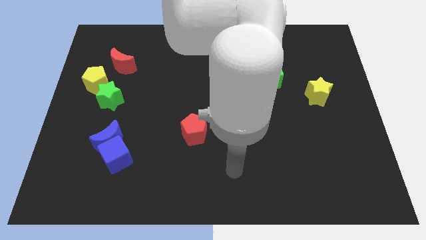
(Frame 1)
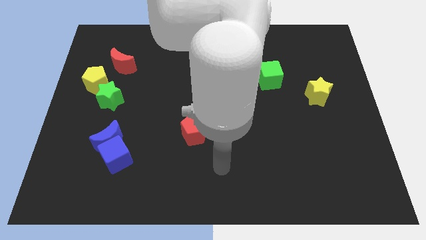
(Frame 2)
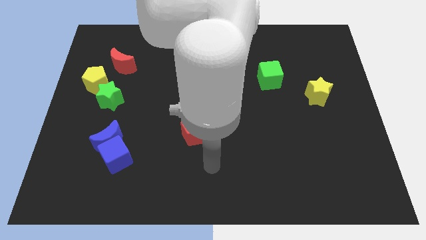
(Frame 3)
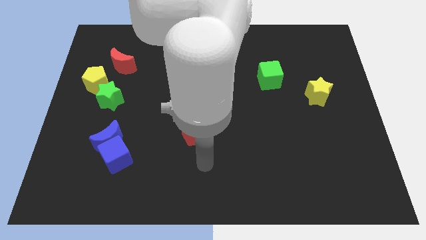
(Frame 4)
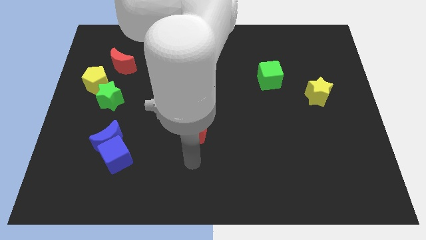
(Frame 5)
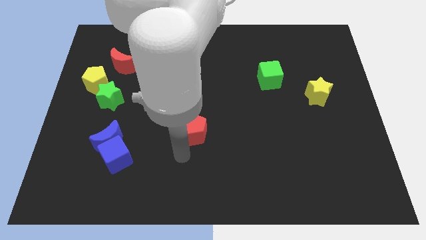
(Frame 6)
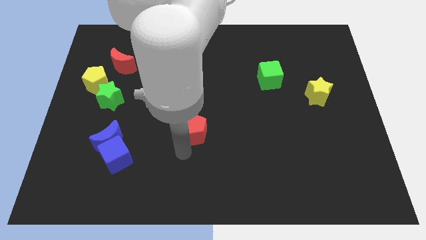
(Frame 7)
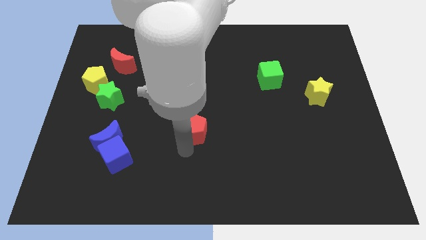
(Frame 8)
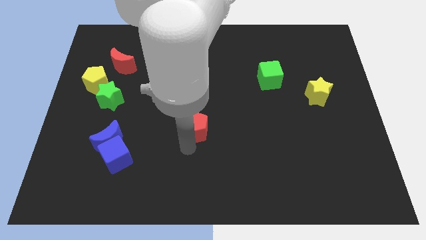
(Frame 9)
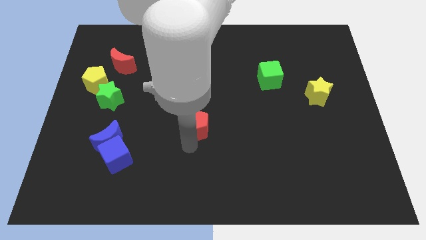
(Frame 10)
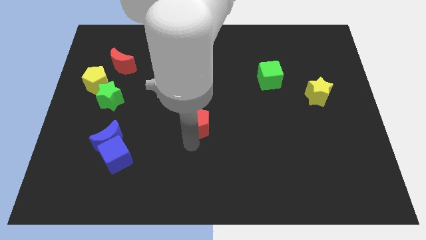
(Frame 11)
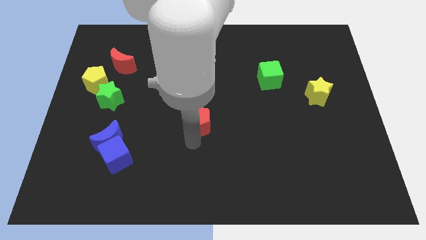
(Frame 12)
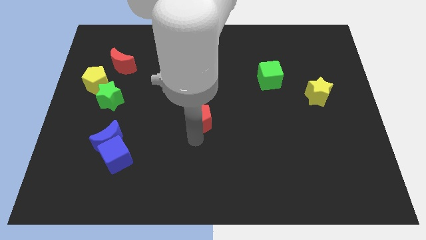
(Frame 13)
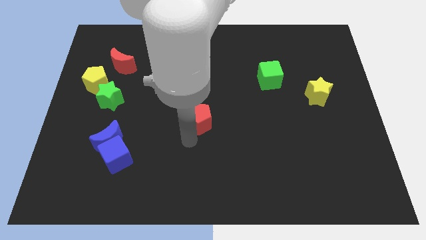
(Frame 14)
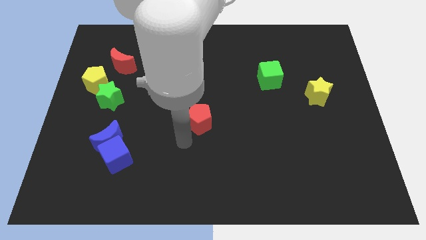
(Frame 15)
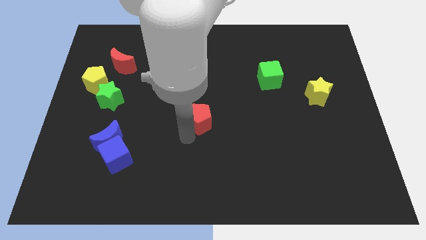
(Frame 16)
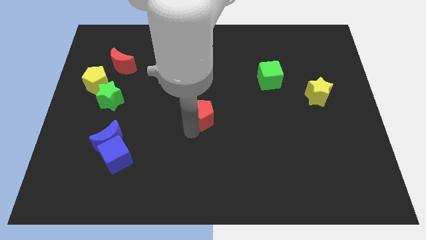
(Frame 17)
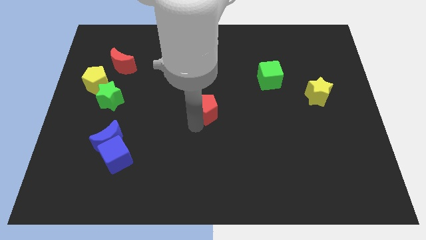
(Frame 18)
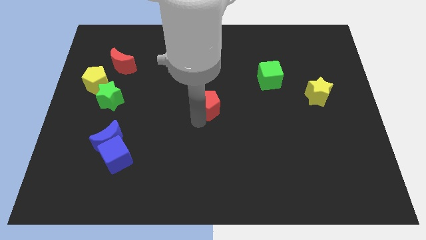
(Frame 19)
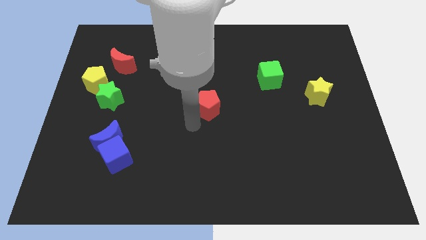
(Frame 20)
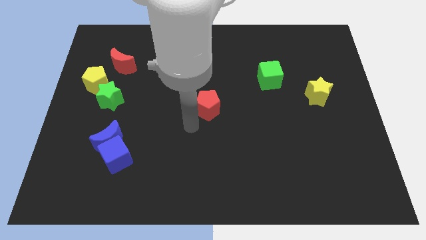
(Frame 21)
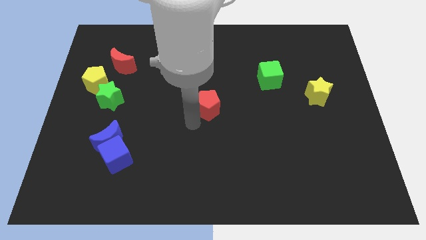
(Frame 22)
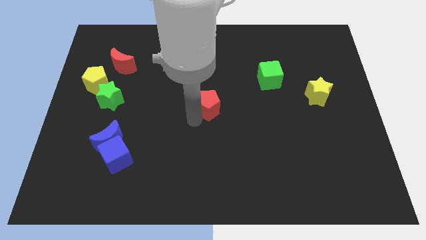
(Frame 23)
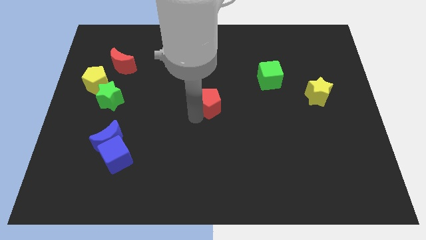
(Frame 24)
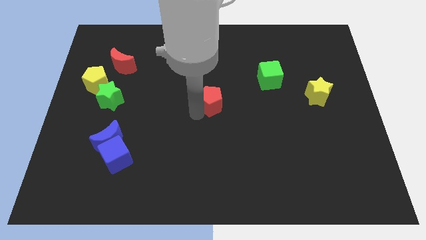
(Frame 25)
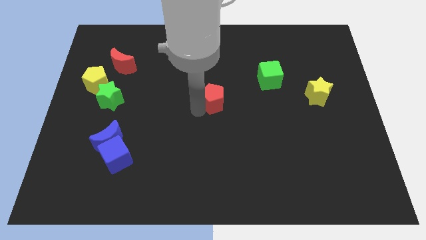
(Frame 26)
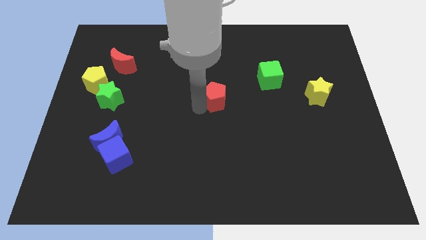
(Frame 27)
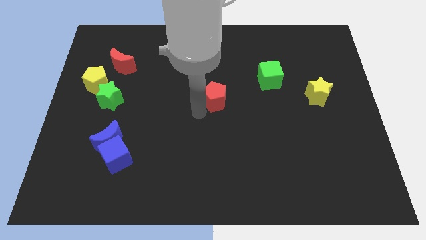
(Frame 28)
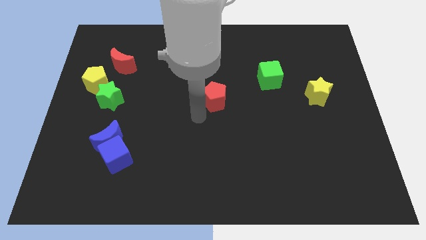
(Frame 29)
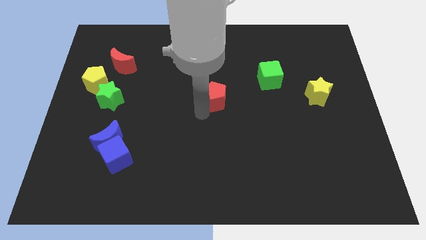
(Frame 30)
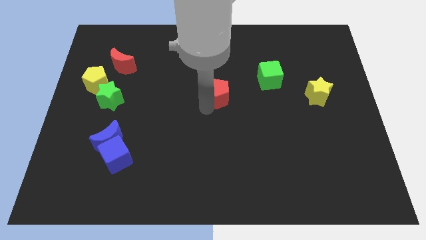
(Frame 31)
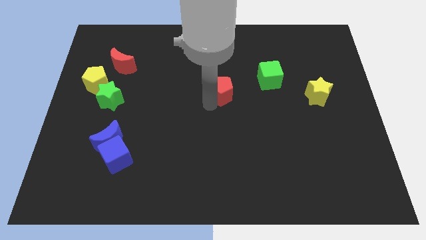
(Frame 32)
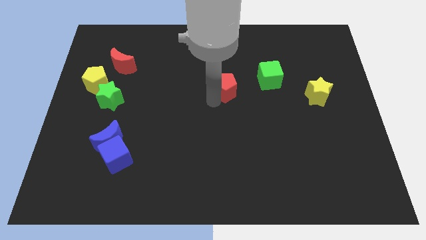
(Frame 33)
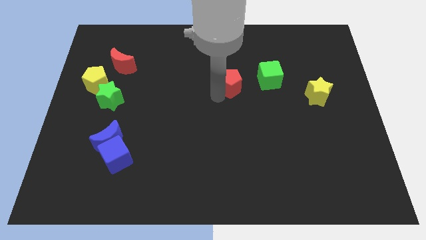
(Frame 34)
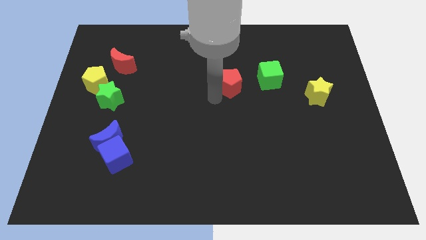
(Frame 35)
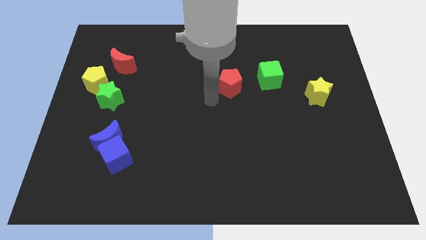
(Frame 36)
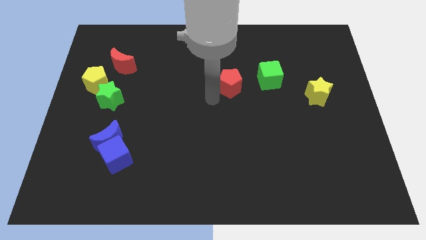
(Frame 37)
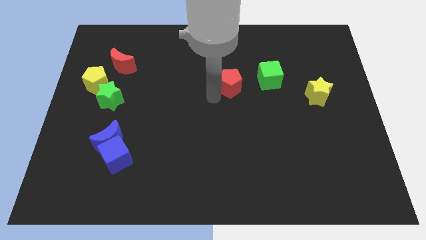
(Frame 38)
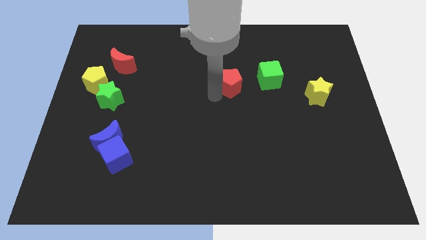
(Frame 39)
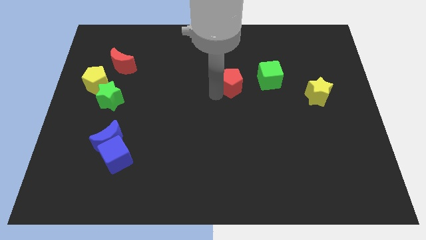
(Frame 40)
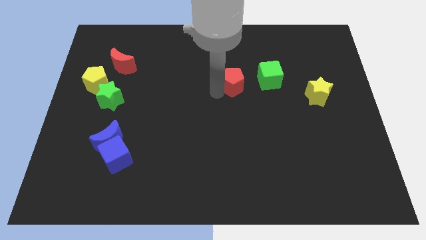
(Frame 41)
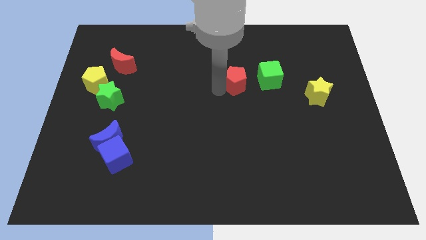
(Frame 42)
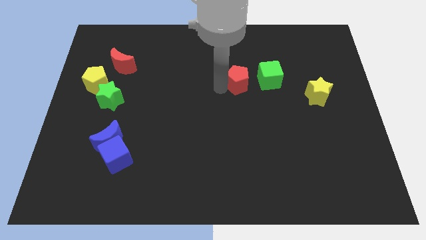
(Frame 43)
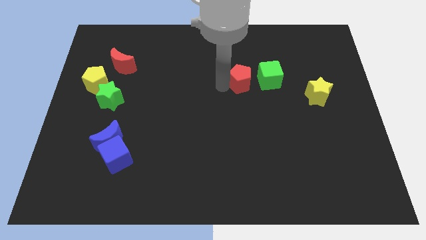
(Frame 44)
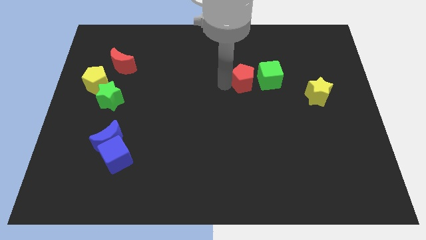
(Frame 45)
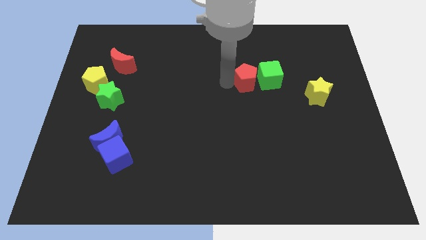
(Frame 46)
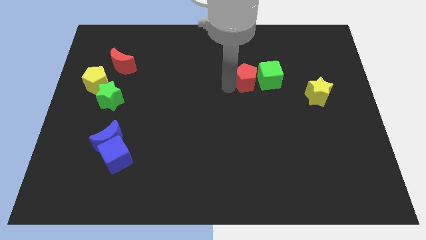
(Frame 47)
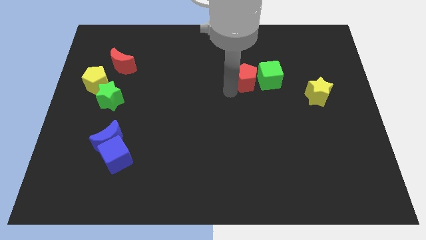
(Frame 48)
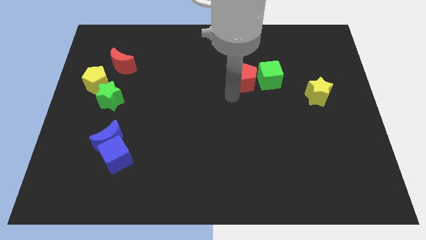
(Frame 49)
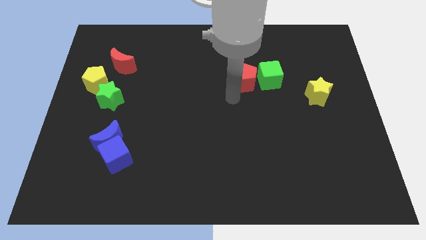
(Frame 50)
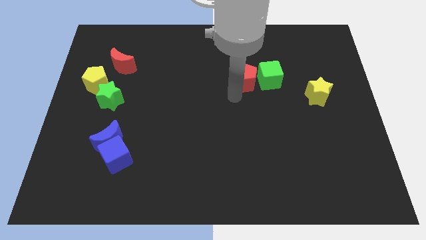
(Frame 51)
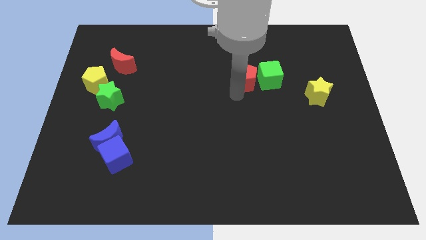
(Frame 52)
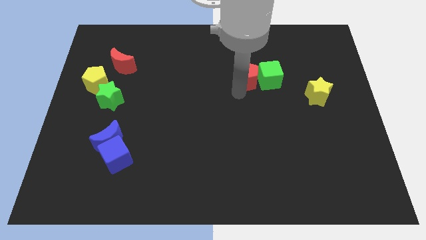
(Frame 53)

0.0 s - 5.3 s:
push the red pentagon upwards and to the right diagonally

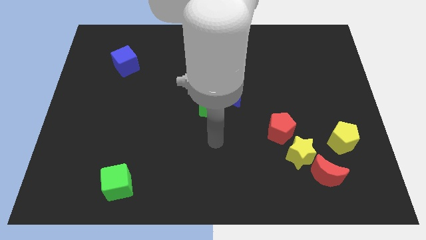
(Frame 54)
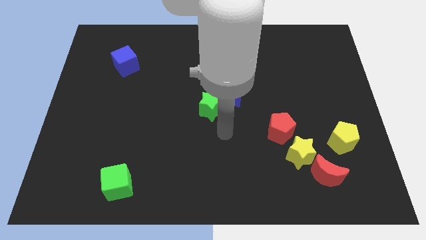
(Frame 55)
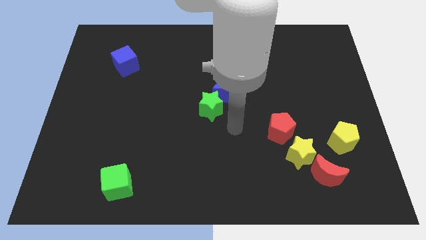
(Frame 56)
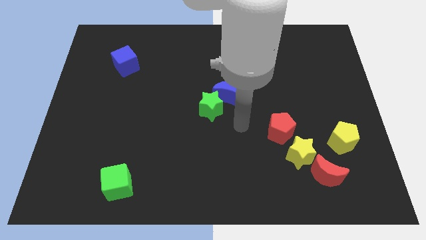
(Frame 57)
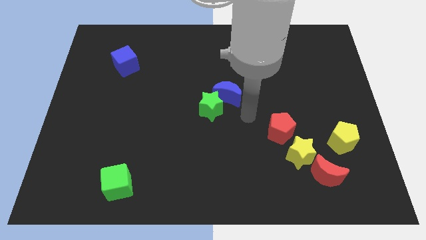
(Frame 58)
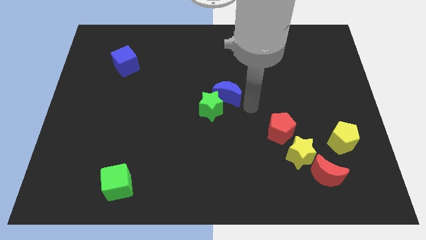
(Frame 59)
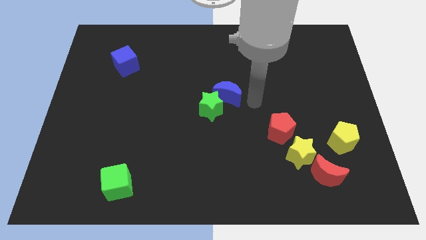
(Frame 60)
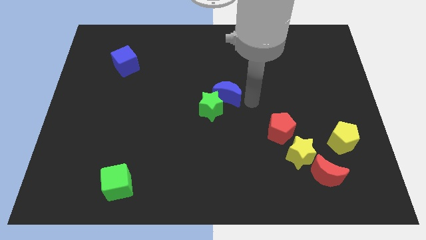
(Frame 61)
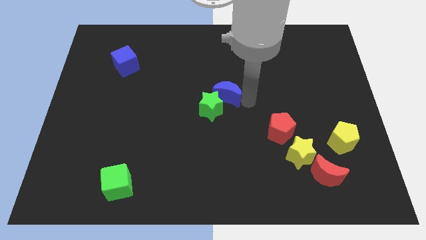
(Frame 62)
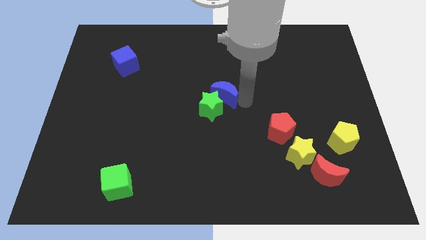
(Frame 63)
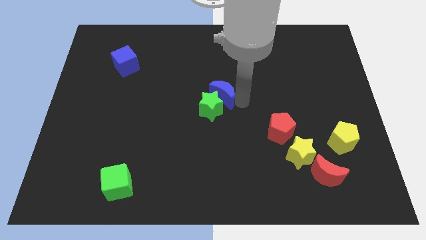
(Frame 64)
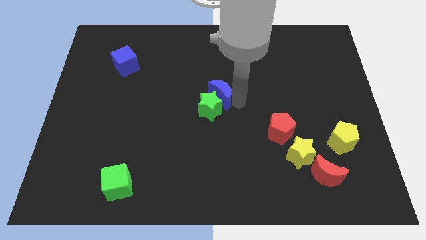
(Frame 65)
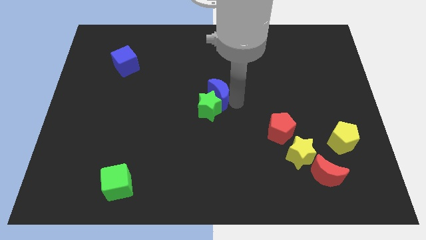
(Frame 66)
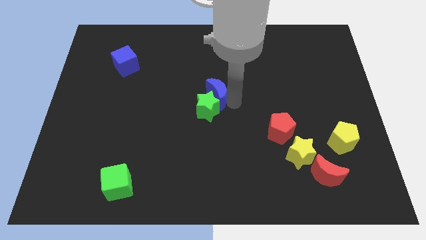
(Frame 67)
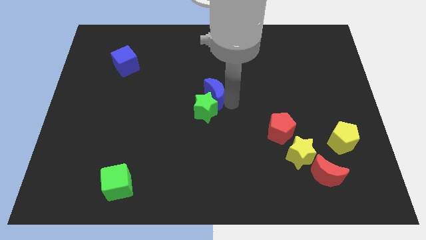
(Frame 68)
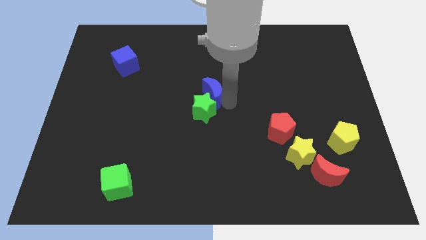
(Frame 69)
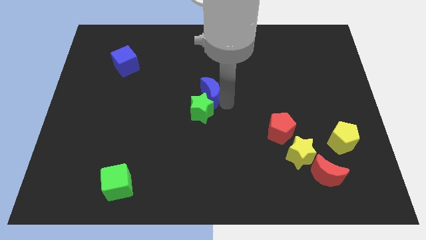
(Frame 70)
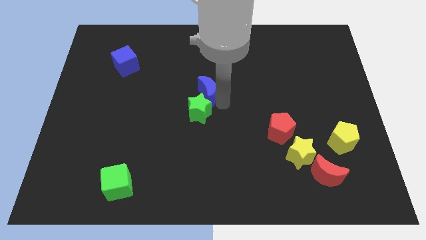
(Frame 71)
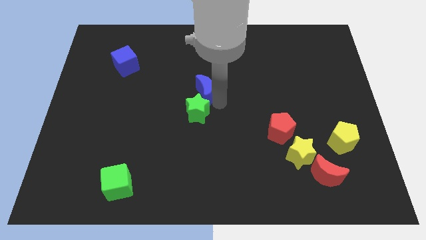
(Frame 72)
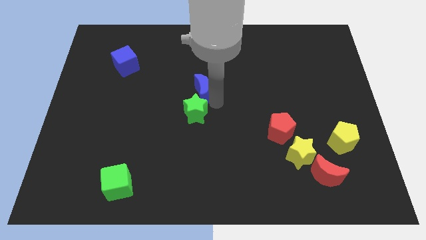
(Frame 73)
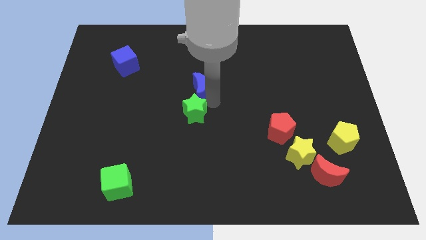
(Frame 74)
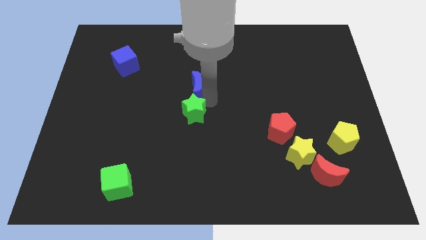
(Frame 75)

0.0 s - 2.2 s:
move the blue moon a little to the left

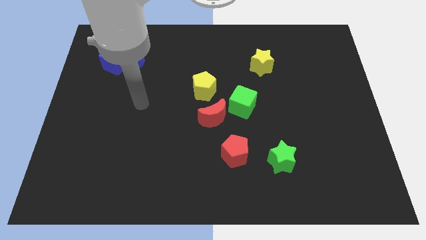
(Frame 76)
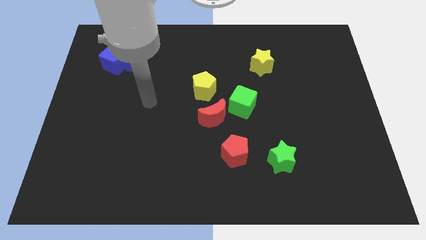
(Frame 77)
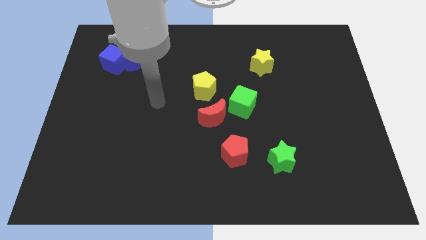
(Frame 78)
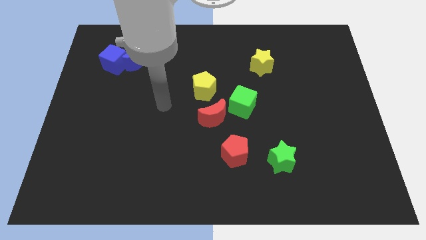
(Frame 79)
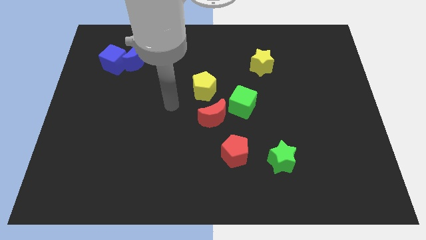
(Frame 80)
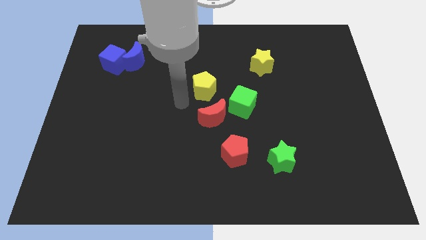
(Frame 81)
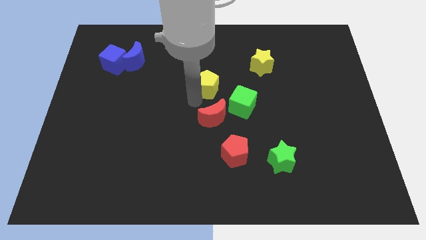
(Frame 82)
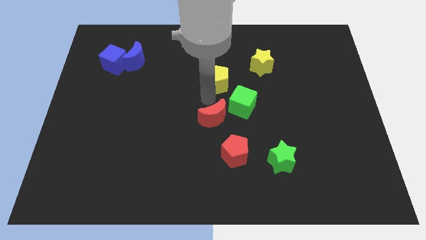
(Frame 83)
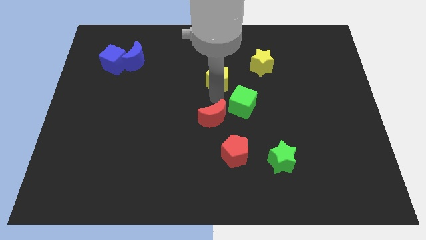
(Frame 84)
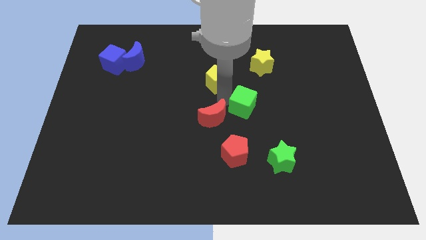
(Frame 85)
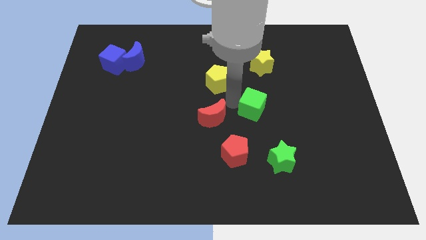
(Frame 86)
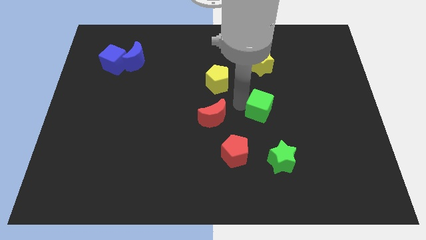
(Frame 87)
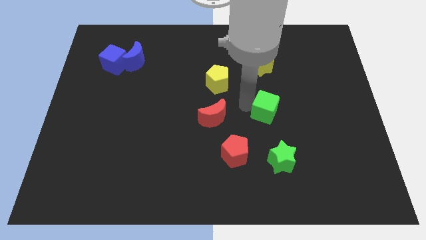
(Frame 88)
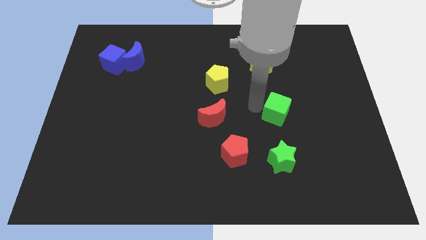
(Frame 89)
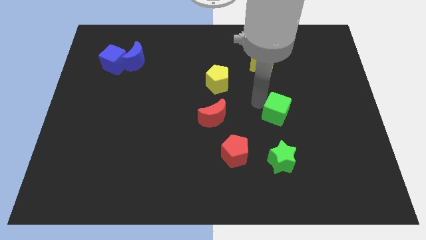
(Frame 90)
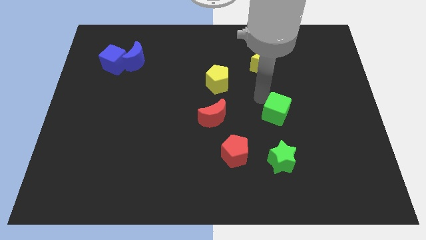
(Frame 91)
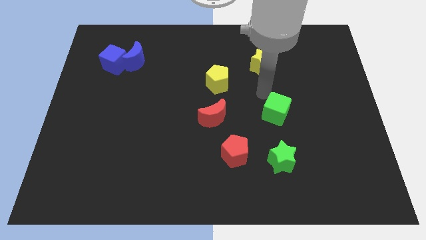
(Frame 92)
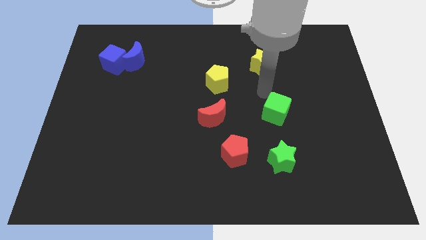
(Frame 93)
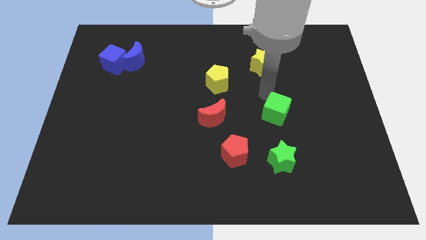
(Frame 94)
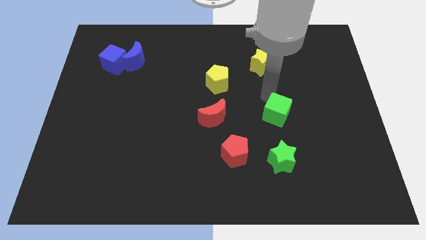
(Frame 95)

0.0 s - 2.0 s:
move the green cube a little diagonally downwards and right
